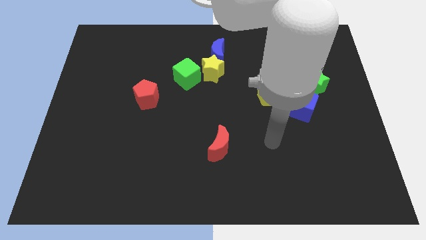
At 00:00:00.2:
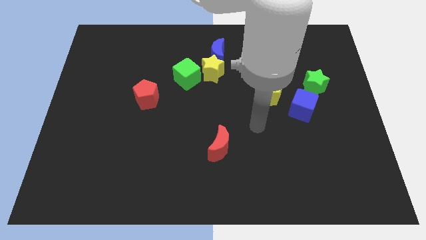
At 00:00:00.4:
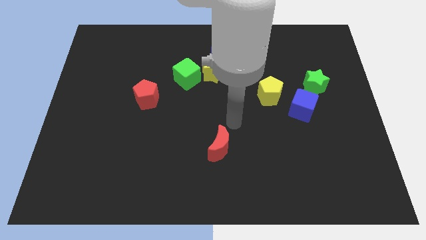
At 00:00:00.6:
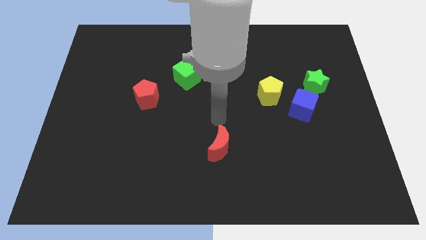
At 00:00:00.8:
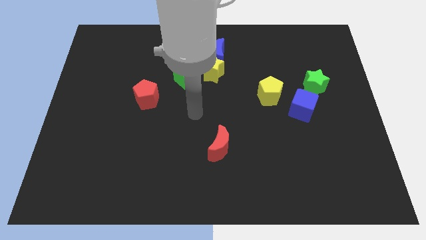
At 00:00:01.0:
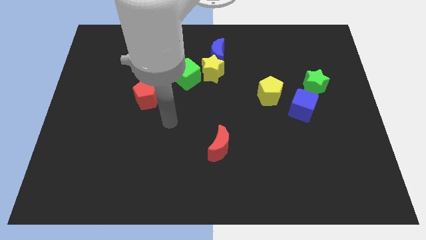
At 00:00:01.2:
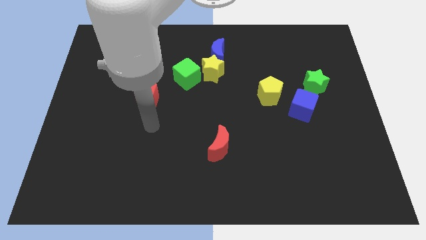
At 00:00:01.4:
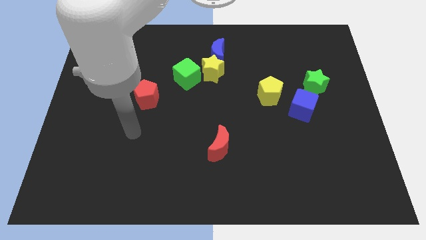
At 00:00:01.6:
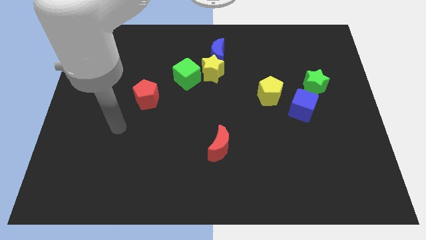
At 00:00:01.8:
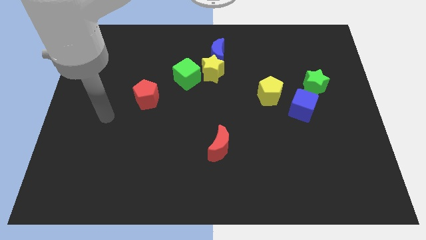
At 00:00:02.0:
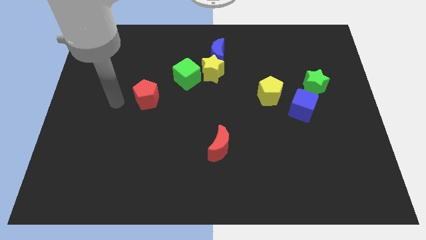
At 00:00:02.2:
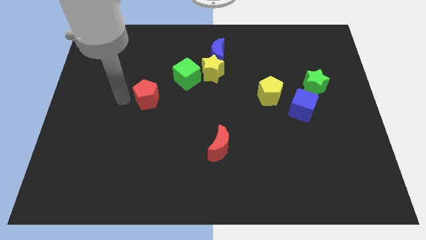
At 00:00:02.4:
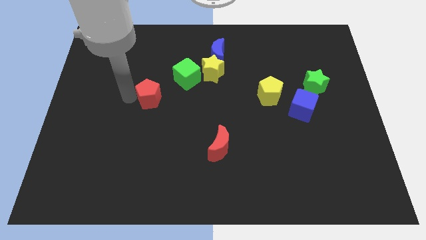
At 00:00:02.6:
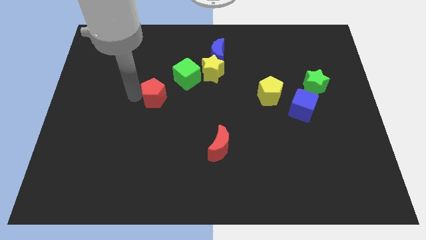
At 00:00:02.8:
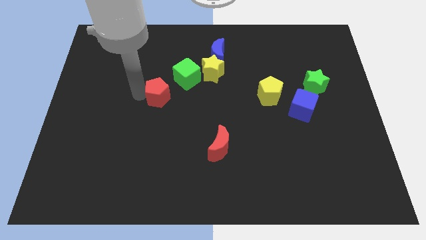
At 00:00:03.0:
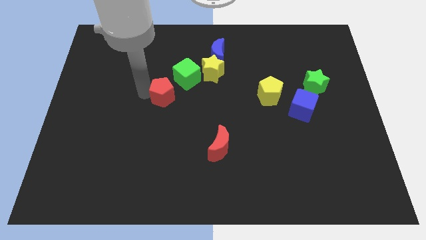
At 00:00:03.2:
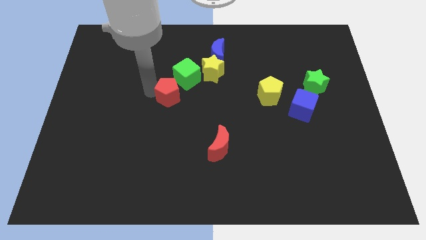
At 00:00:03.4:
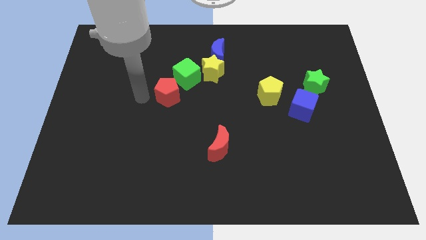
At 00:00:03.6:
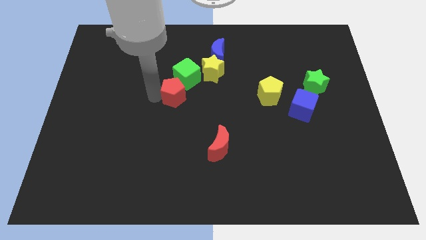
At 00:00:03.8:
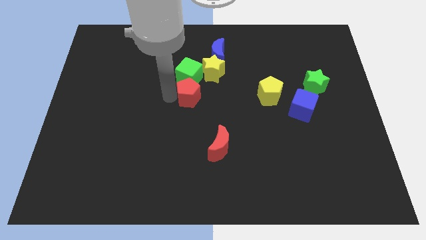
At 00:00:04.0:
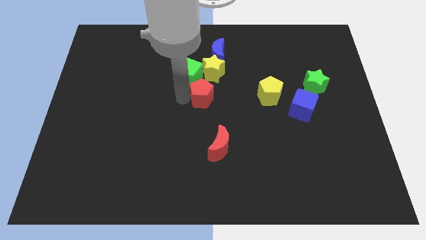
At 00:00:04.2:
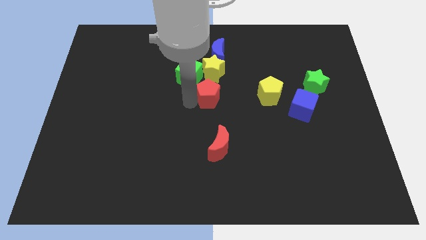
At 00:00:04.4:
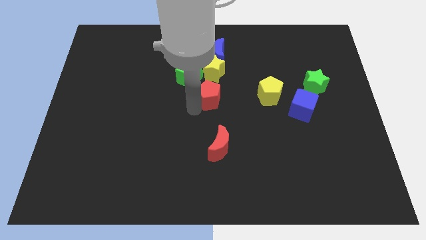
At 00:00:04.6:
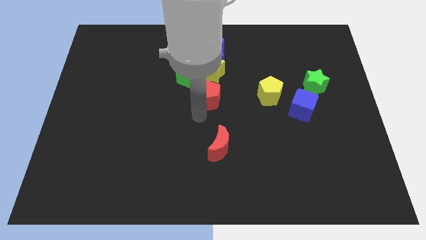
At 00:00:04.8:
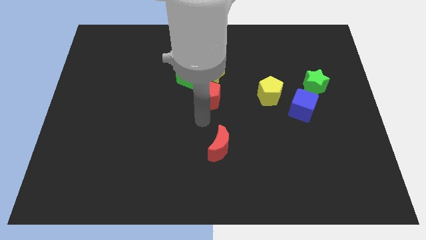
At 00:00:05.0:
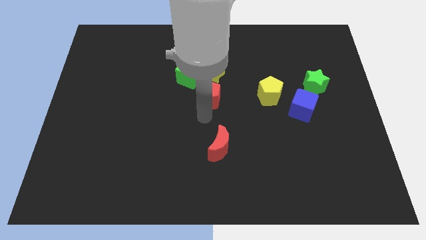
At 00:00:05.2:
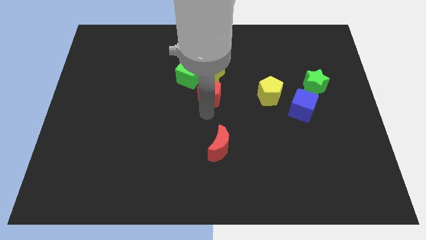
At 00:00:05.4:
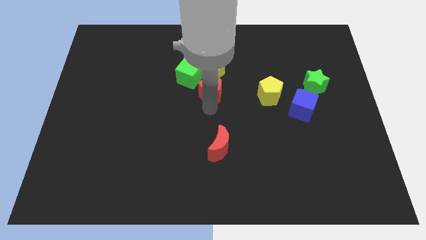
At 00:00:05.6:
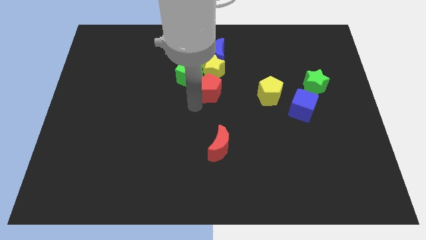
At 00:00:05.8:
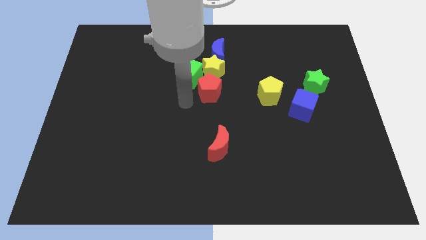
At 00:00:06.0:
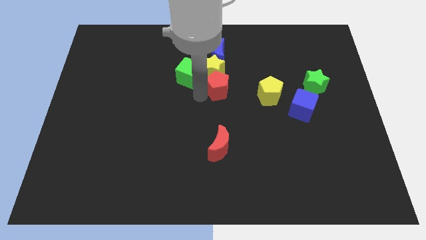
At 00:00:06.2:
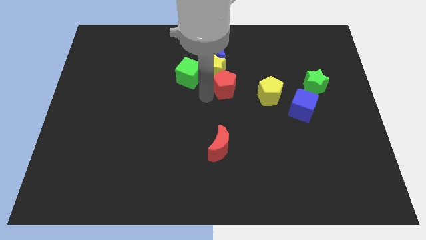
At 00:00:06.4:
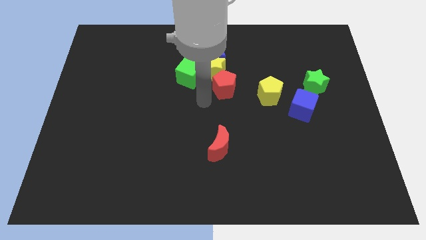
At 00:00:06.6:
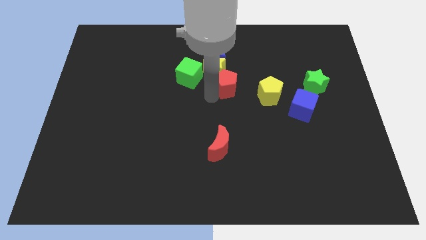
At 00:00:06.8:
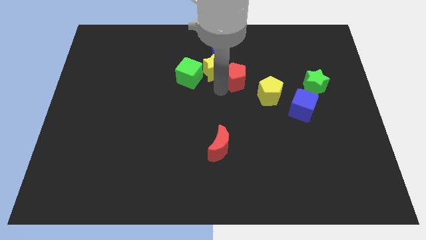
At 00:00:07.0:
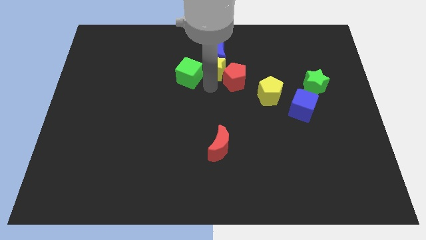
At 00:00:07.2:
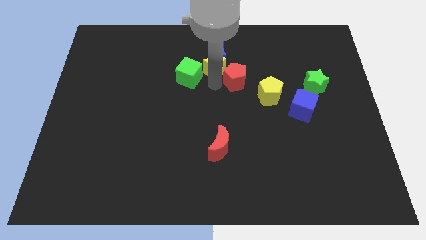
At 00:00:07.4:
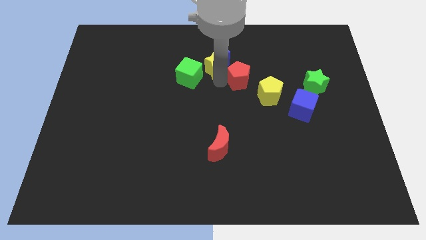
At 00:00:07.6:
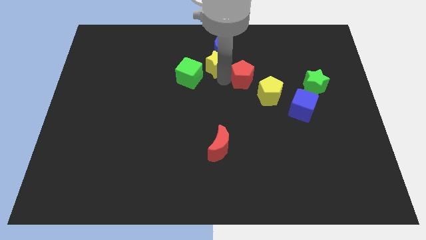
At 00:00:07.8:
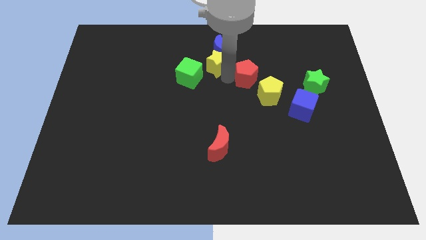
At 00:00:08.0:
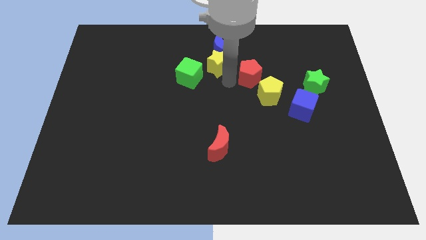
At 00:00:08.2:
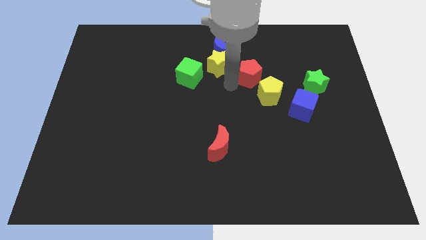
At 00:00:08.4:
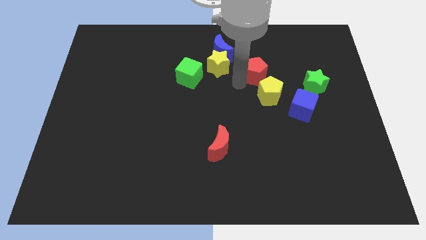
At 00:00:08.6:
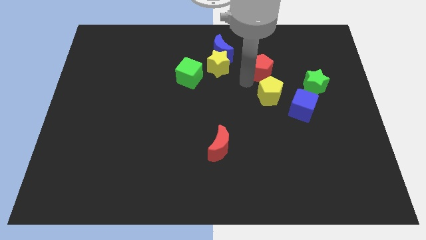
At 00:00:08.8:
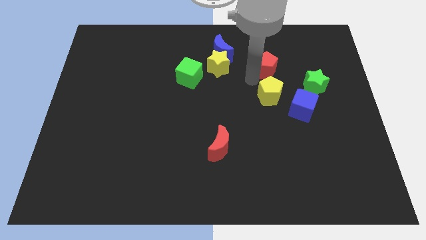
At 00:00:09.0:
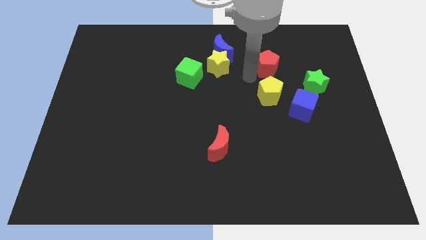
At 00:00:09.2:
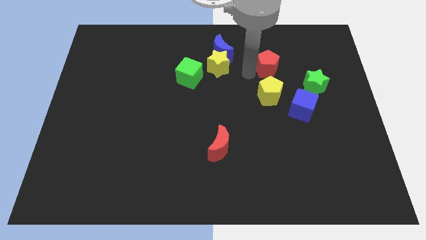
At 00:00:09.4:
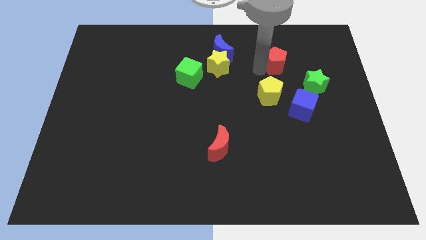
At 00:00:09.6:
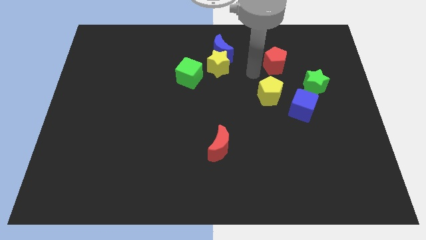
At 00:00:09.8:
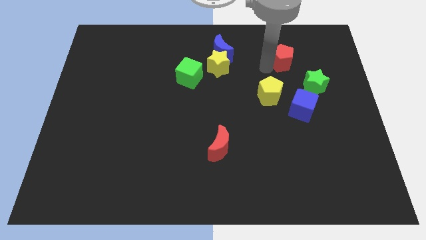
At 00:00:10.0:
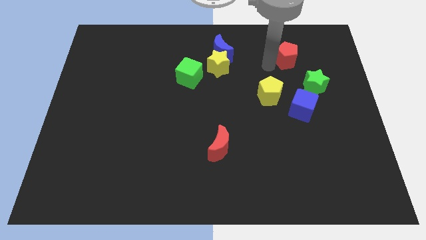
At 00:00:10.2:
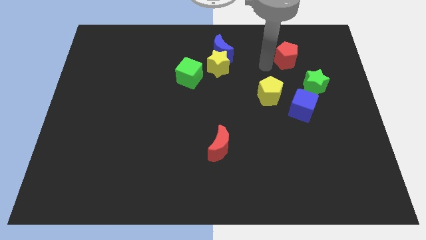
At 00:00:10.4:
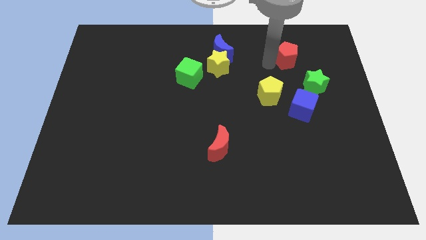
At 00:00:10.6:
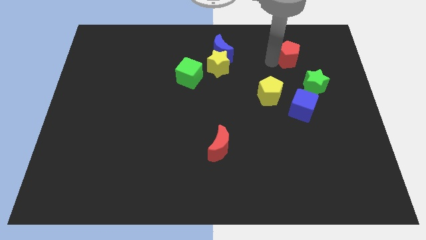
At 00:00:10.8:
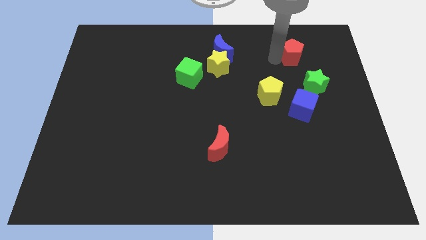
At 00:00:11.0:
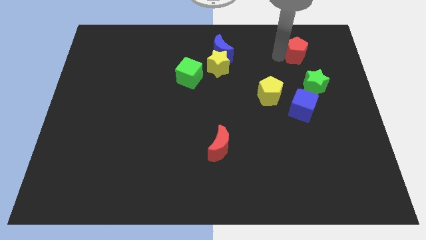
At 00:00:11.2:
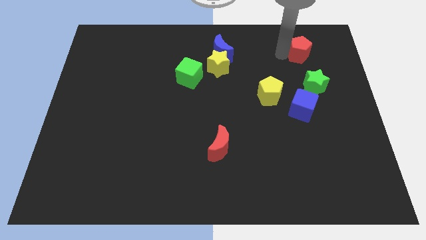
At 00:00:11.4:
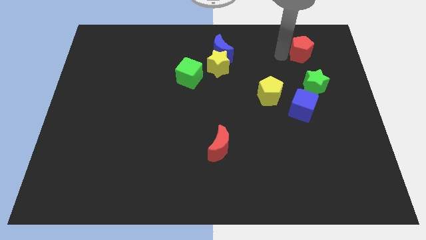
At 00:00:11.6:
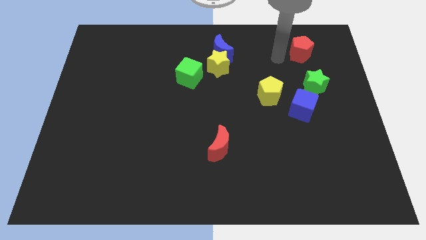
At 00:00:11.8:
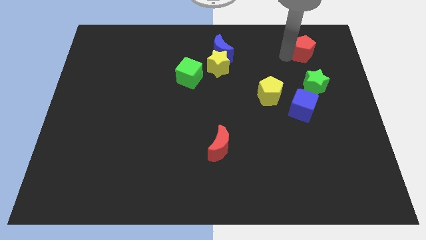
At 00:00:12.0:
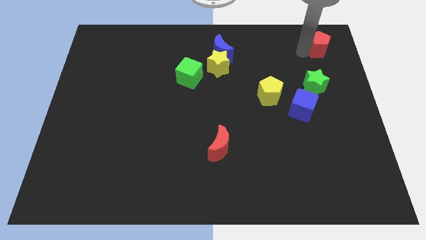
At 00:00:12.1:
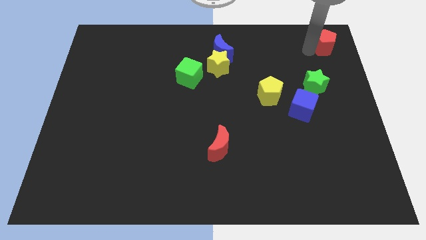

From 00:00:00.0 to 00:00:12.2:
put the red pentagon to the top right corner
